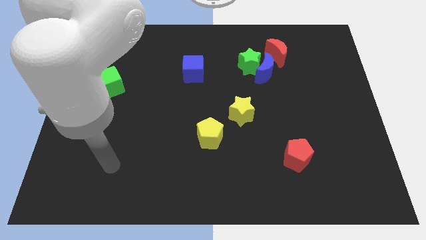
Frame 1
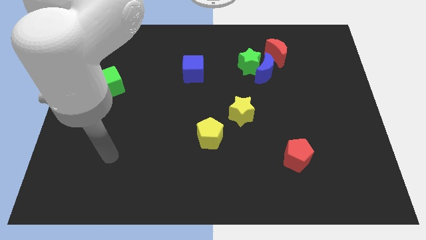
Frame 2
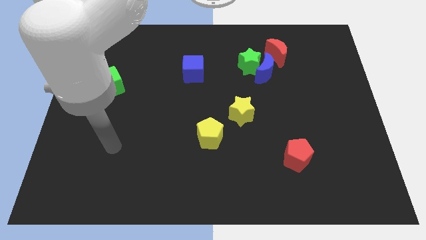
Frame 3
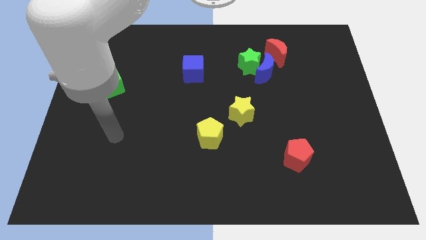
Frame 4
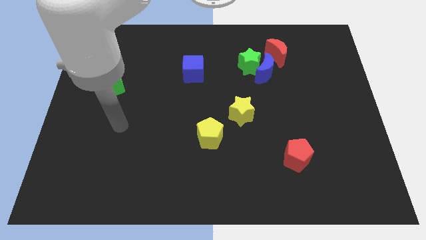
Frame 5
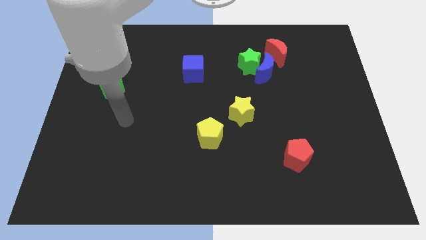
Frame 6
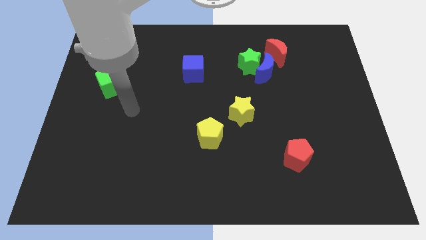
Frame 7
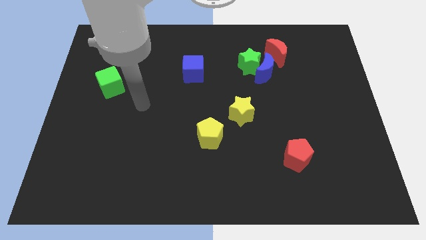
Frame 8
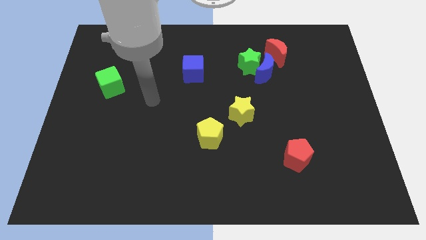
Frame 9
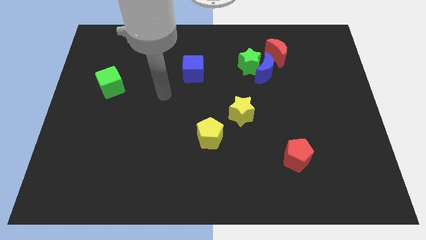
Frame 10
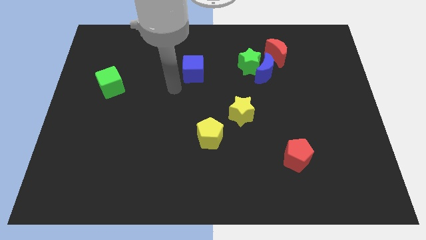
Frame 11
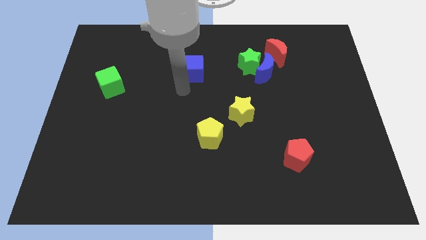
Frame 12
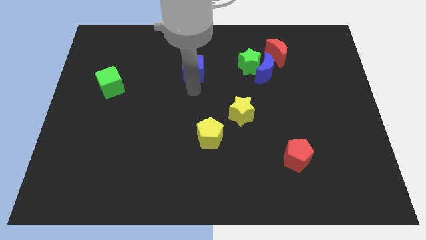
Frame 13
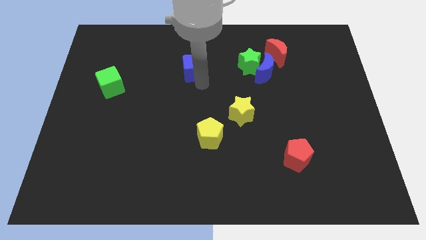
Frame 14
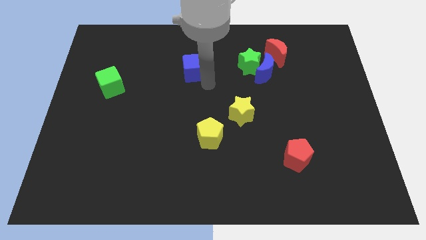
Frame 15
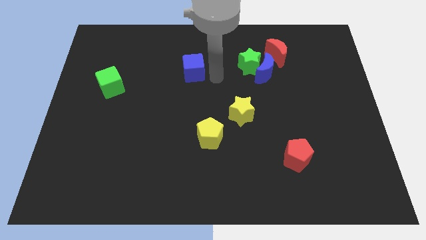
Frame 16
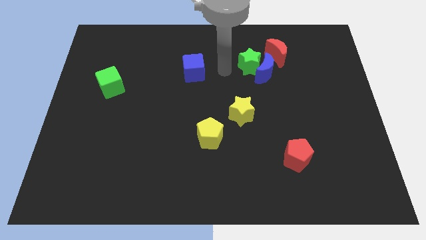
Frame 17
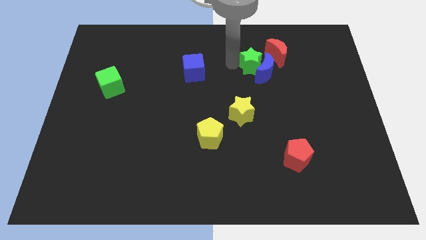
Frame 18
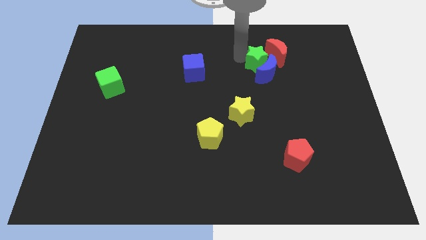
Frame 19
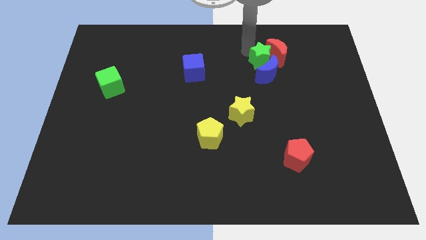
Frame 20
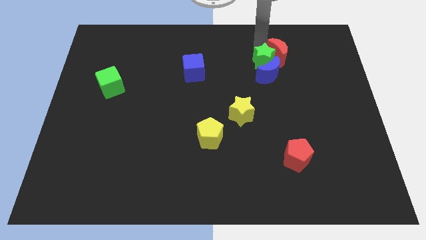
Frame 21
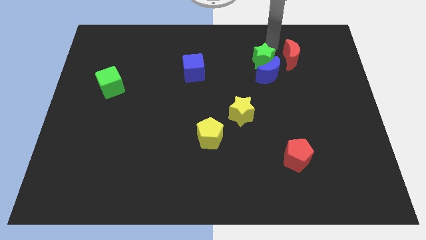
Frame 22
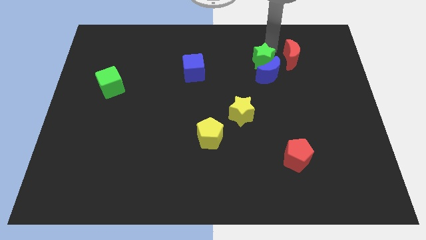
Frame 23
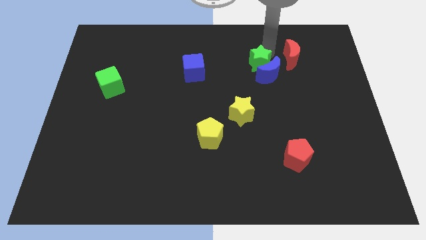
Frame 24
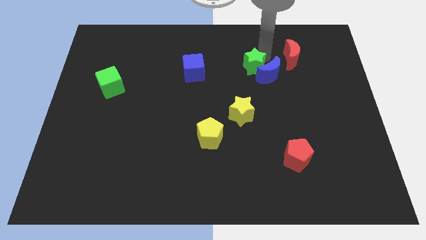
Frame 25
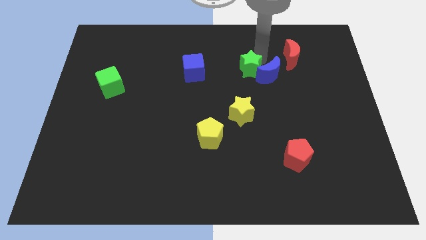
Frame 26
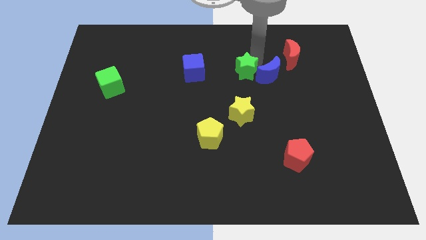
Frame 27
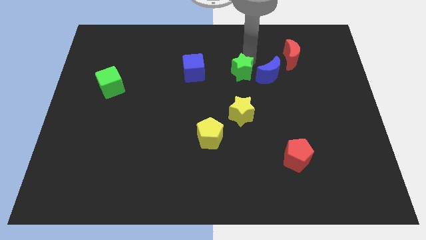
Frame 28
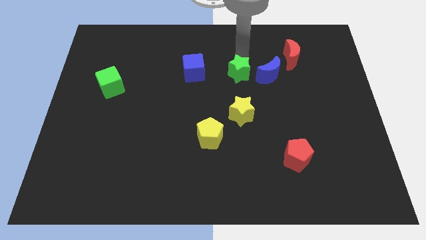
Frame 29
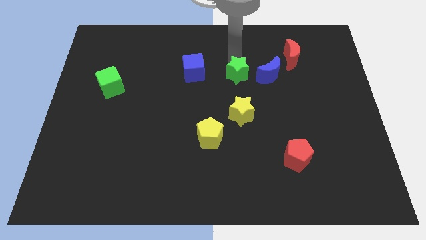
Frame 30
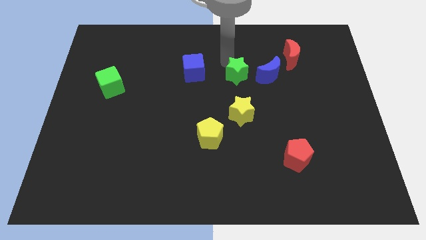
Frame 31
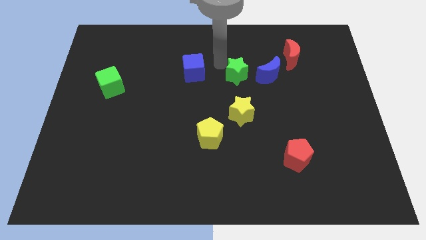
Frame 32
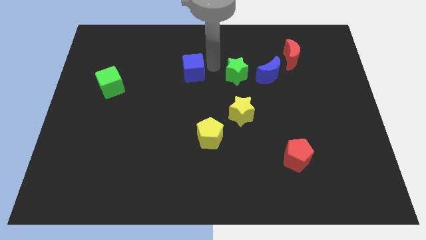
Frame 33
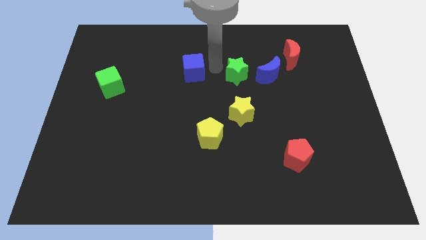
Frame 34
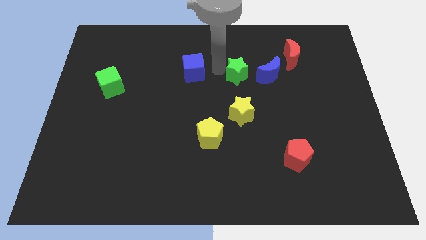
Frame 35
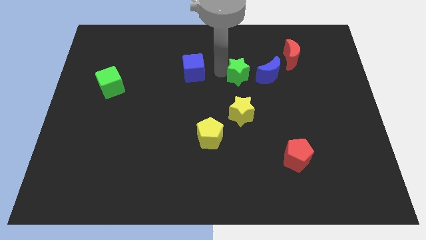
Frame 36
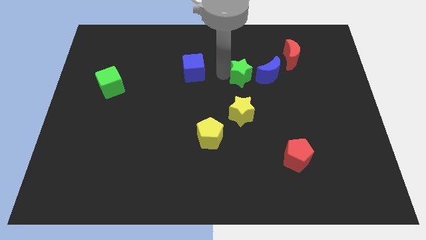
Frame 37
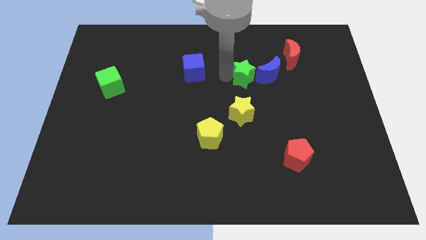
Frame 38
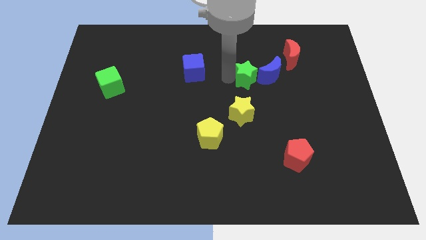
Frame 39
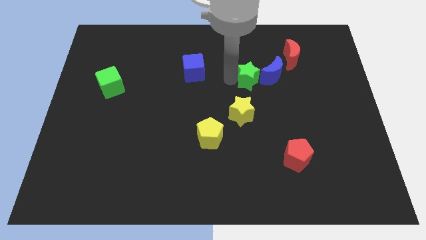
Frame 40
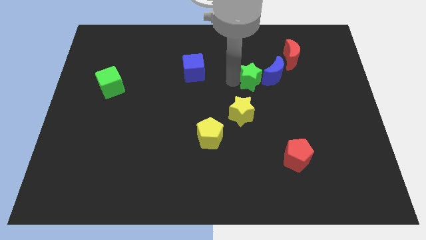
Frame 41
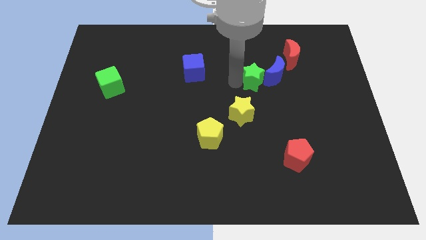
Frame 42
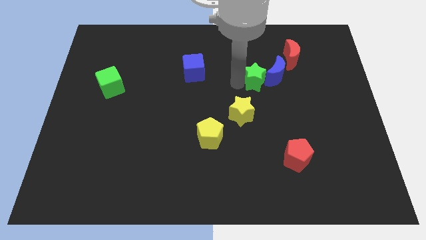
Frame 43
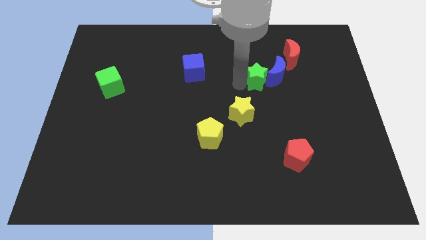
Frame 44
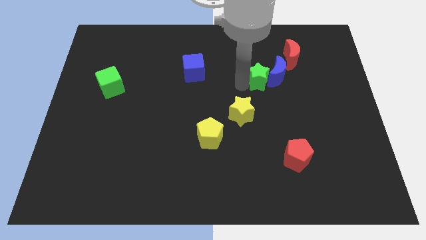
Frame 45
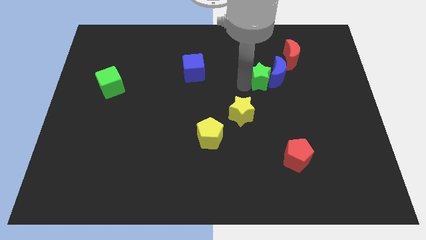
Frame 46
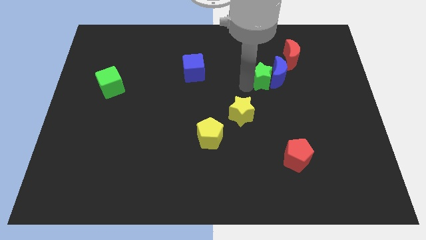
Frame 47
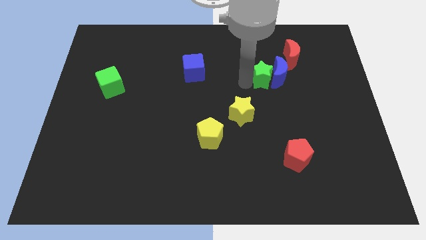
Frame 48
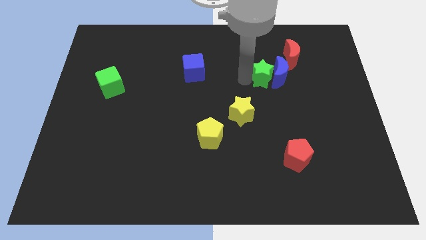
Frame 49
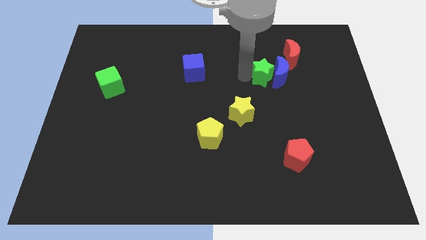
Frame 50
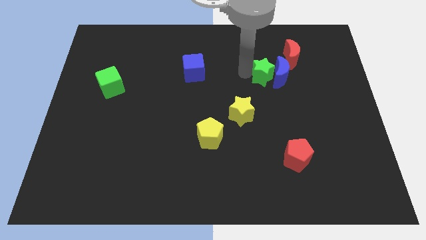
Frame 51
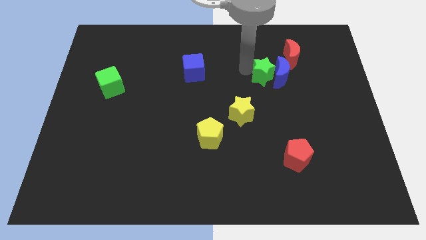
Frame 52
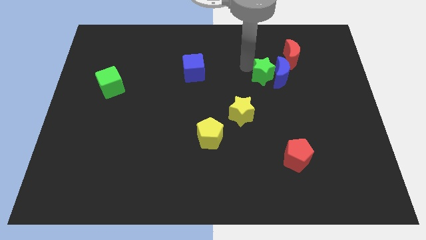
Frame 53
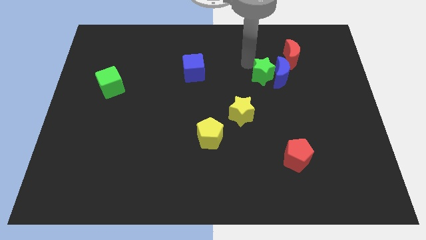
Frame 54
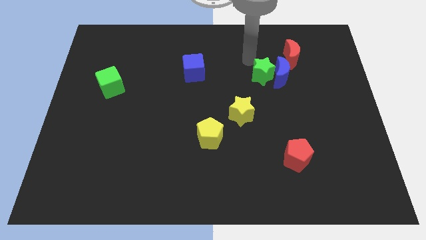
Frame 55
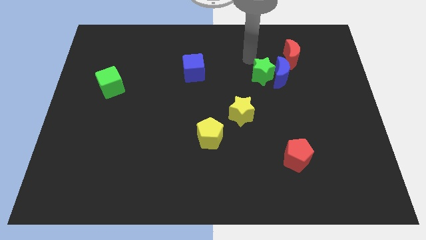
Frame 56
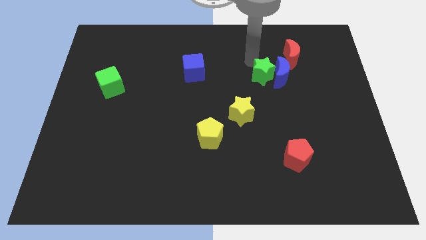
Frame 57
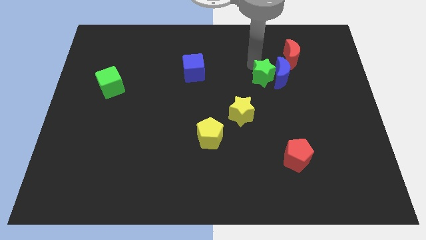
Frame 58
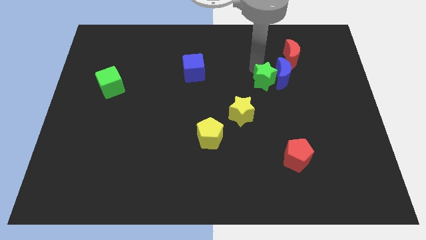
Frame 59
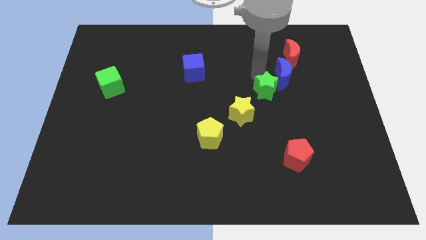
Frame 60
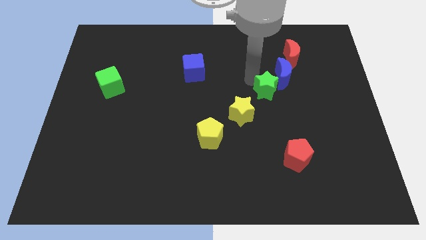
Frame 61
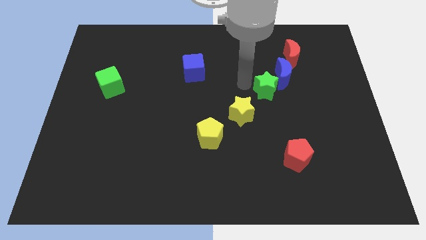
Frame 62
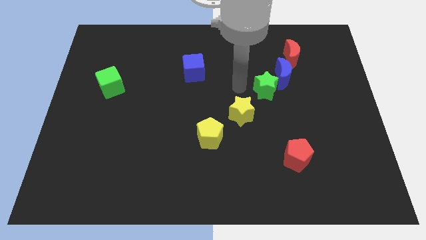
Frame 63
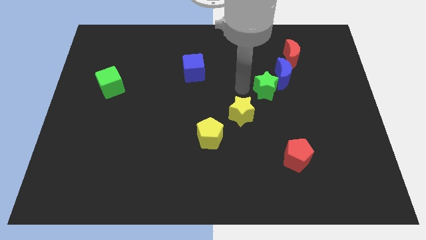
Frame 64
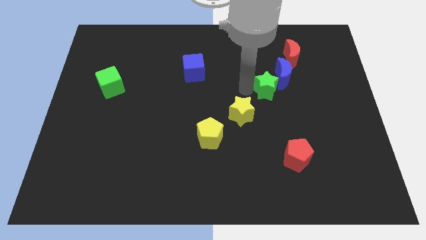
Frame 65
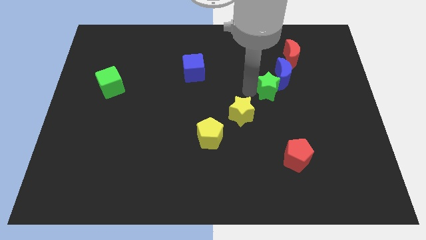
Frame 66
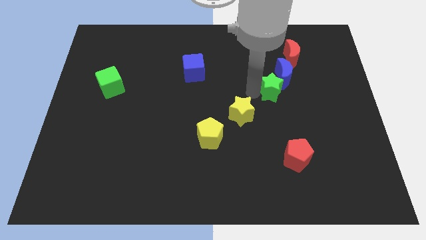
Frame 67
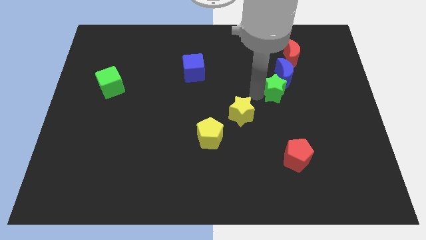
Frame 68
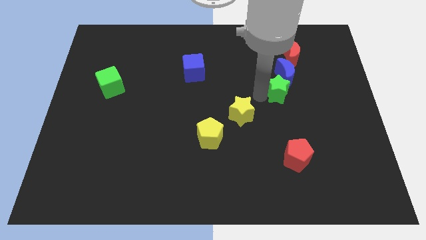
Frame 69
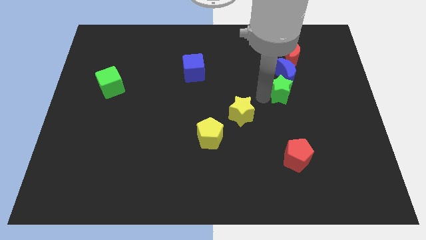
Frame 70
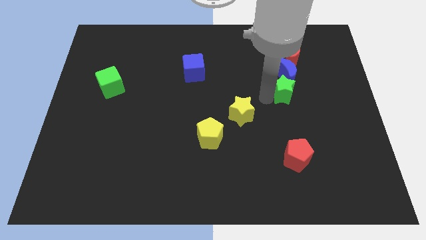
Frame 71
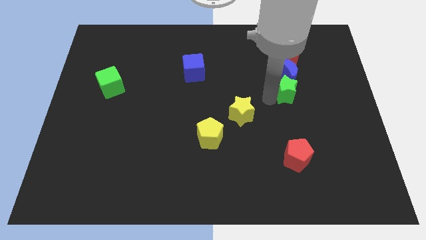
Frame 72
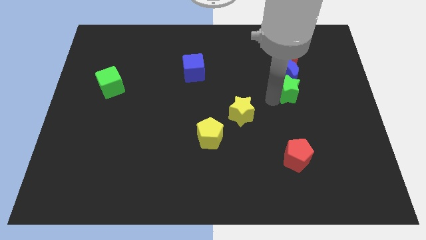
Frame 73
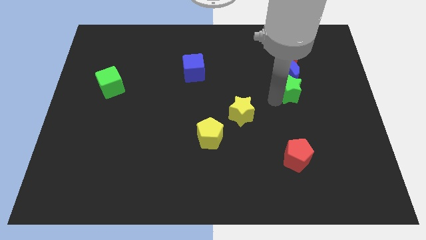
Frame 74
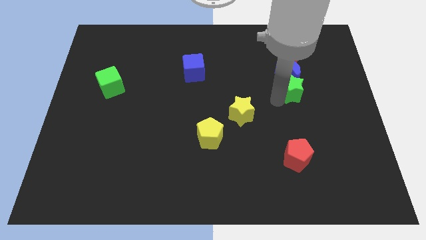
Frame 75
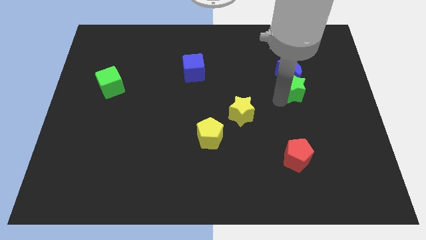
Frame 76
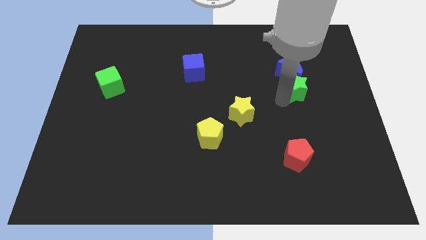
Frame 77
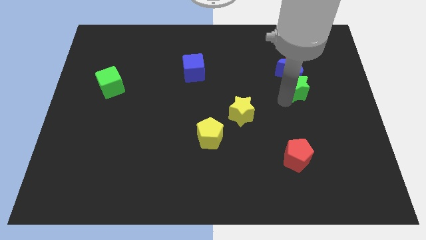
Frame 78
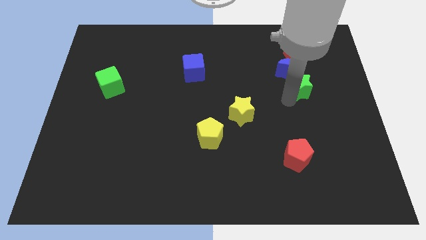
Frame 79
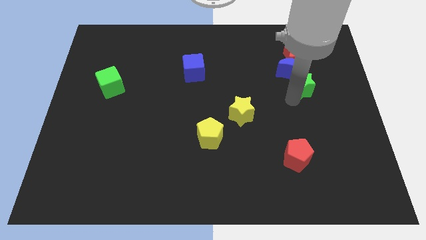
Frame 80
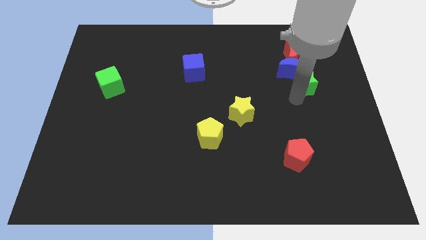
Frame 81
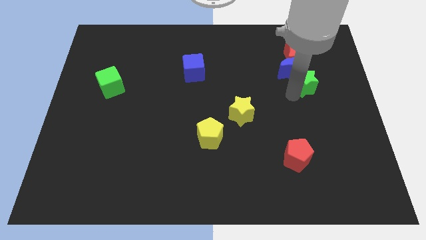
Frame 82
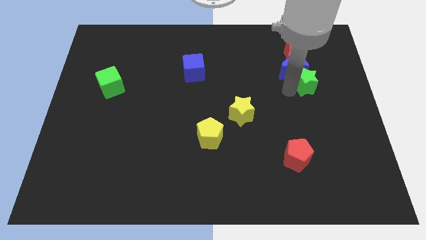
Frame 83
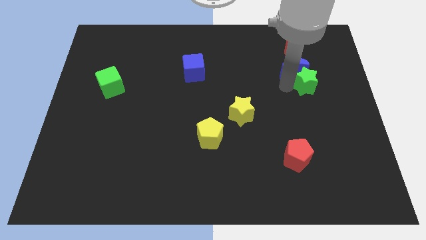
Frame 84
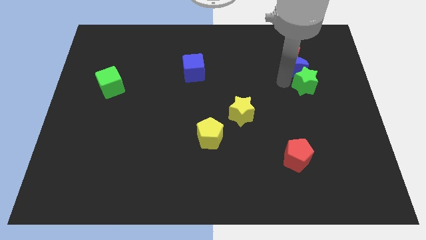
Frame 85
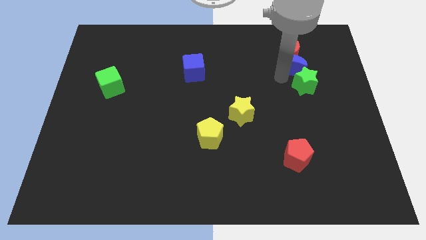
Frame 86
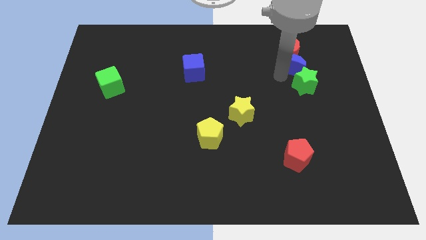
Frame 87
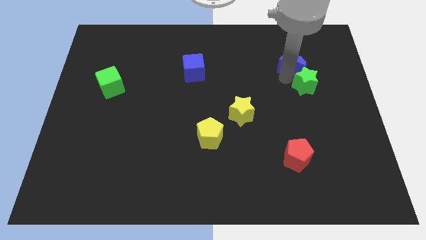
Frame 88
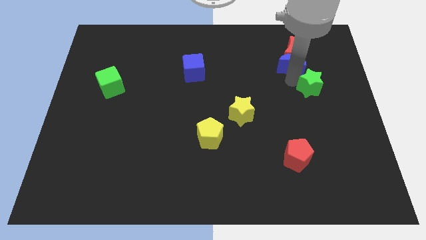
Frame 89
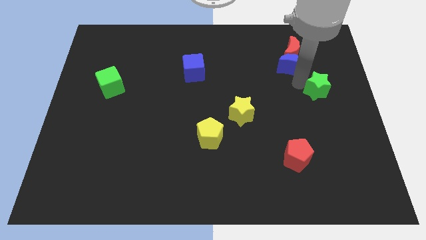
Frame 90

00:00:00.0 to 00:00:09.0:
move the green star to the right side
